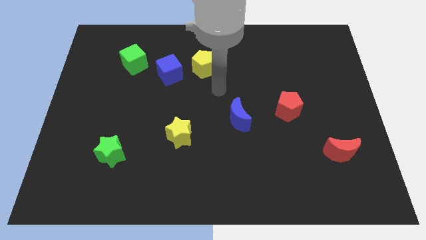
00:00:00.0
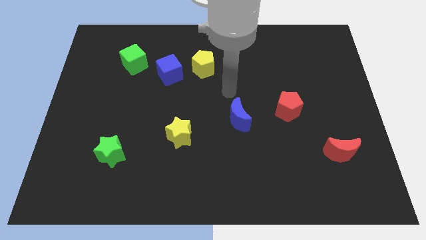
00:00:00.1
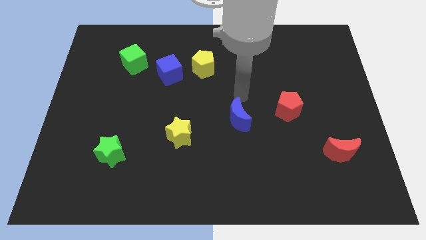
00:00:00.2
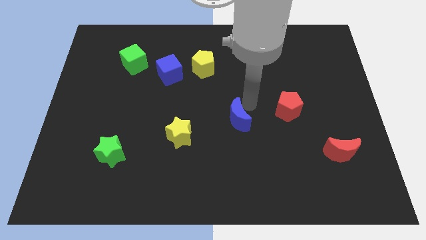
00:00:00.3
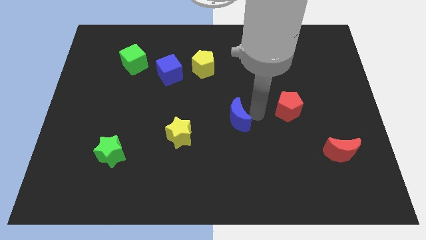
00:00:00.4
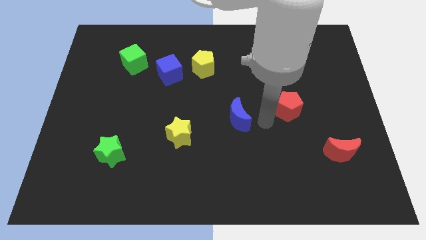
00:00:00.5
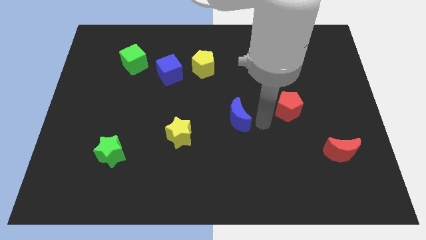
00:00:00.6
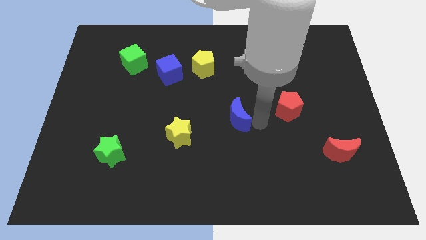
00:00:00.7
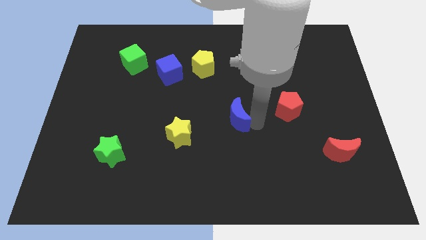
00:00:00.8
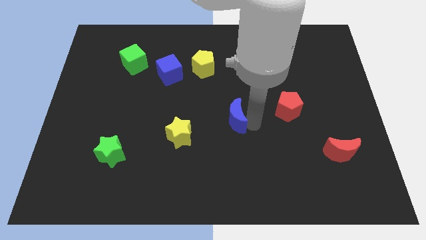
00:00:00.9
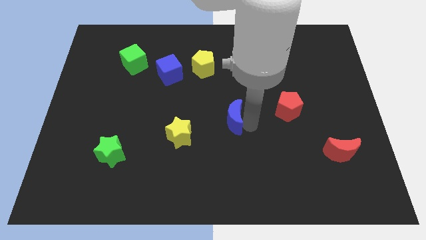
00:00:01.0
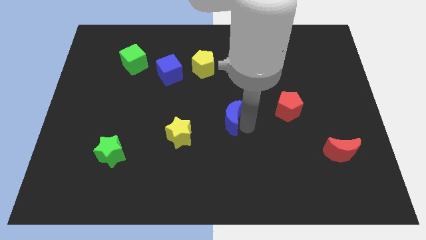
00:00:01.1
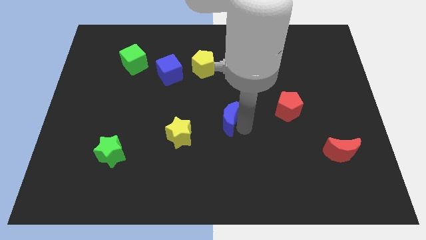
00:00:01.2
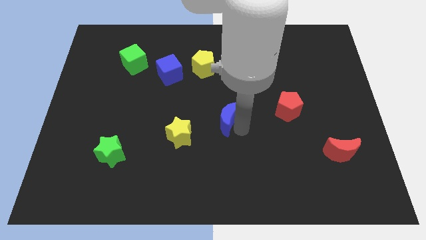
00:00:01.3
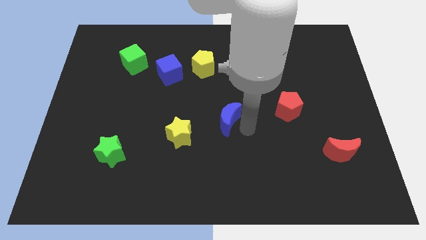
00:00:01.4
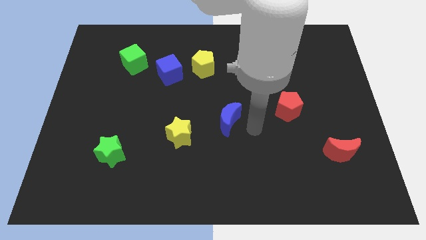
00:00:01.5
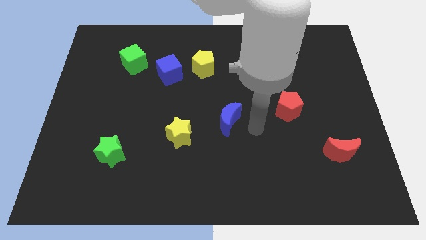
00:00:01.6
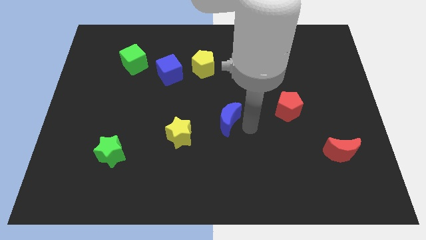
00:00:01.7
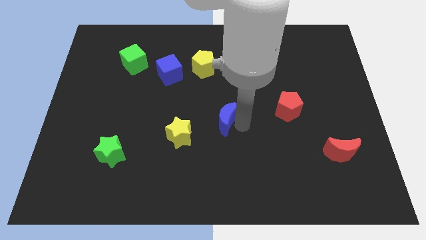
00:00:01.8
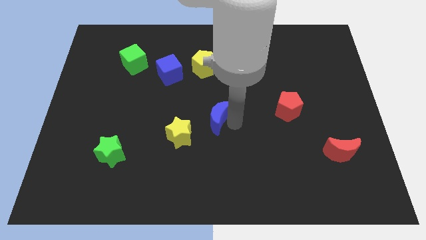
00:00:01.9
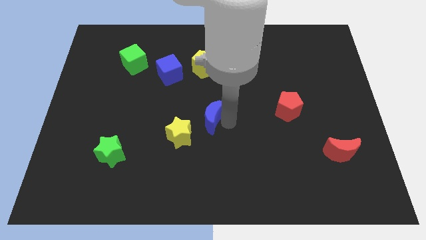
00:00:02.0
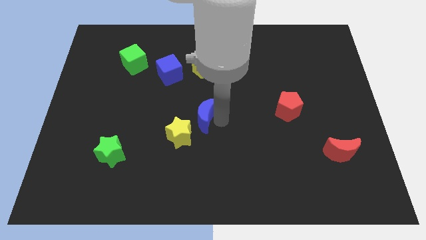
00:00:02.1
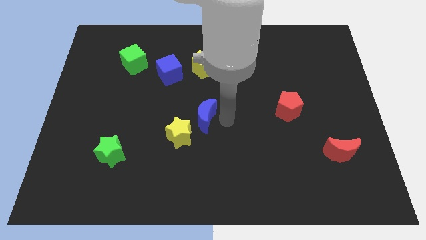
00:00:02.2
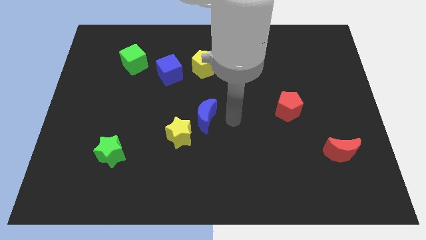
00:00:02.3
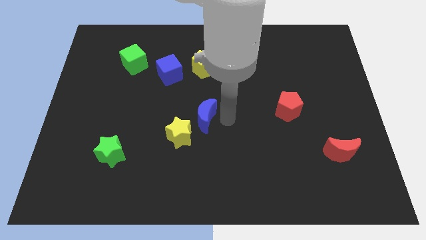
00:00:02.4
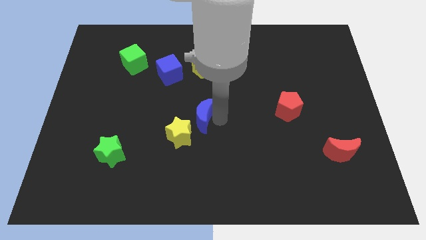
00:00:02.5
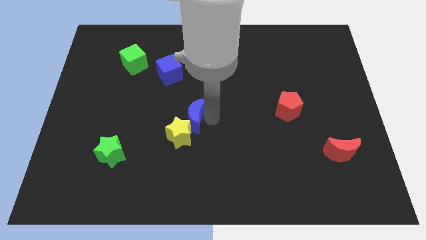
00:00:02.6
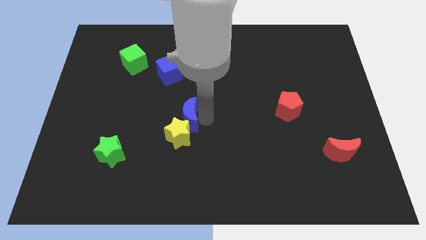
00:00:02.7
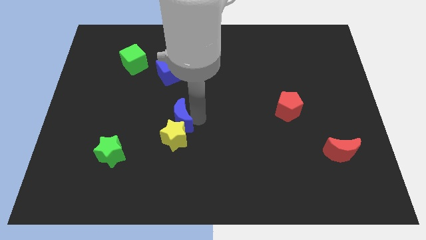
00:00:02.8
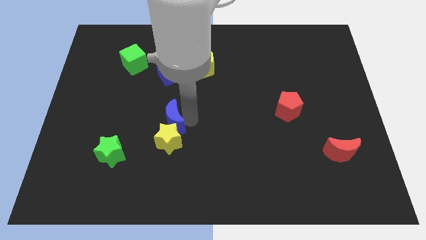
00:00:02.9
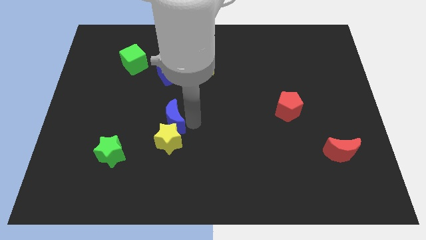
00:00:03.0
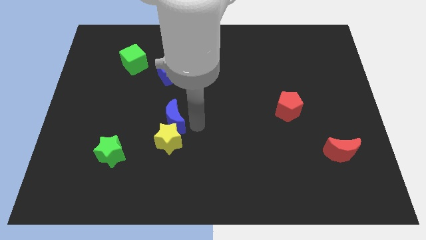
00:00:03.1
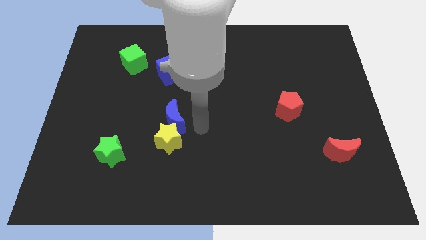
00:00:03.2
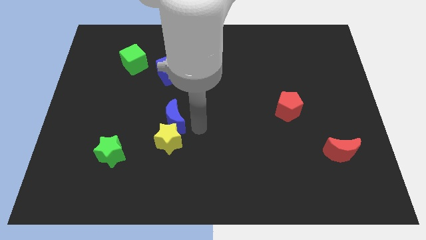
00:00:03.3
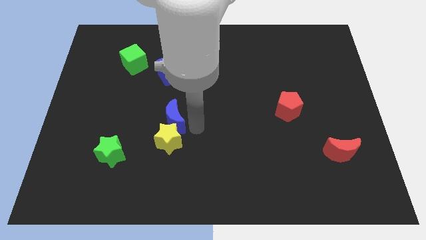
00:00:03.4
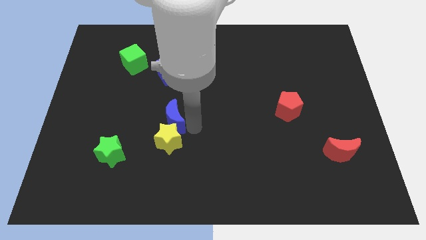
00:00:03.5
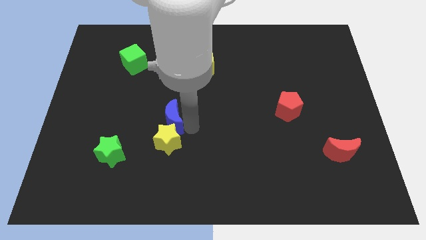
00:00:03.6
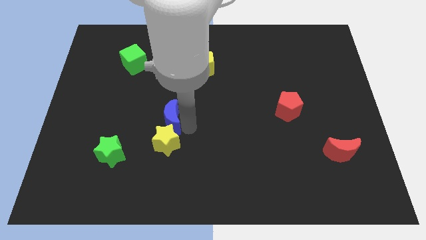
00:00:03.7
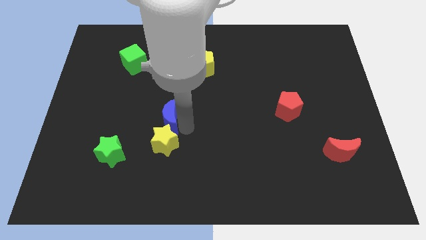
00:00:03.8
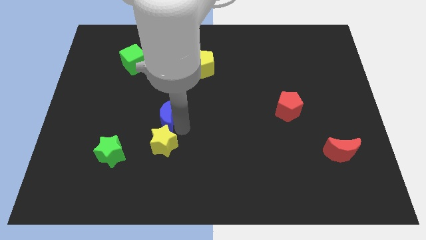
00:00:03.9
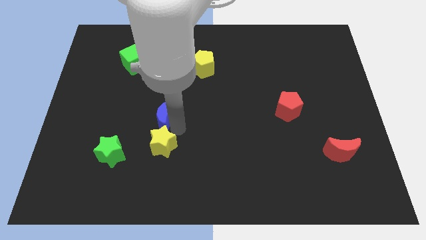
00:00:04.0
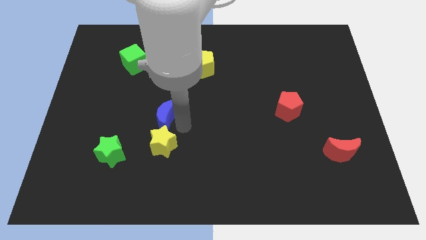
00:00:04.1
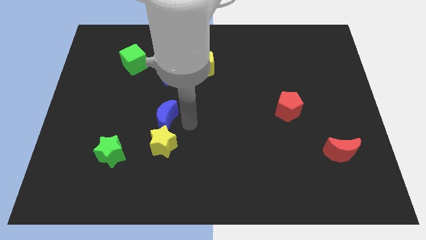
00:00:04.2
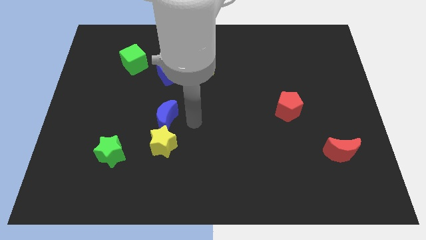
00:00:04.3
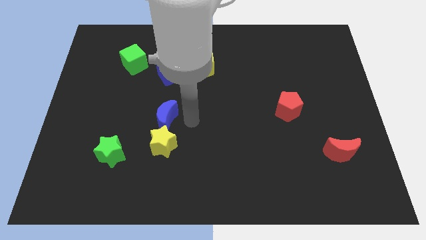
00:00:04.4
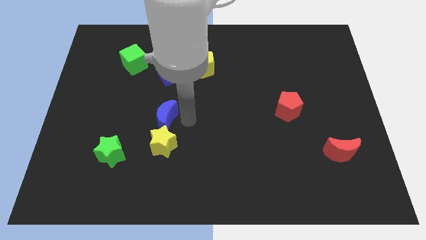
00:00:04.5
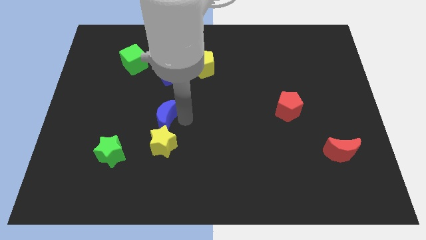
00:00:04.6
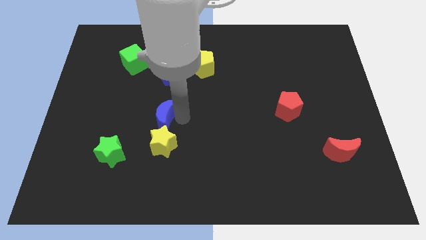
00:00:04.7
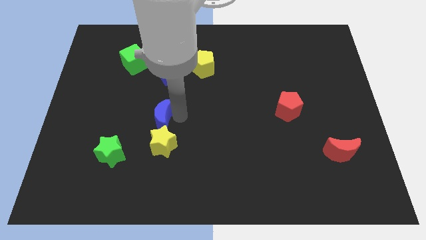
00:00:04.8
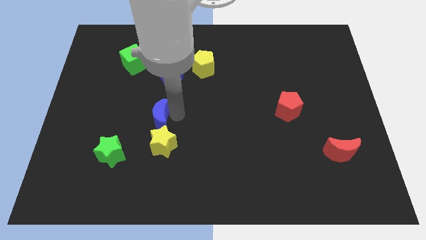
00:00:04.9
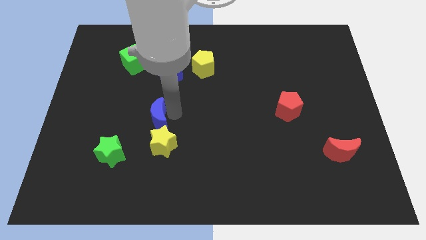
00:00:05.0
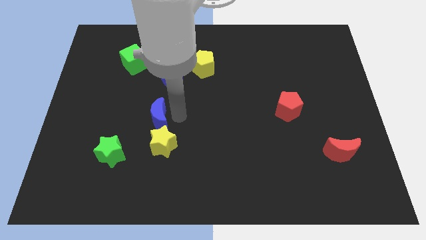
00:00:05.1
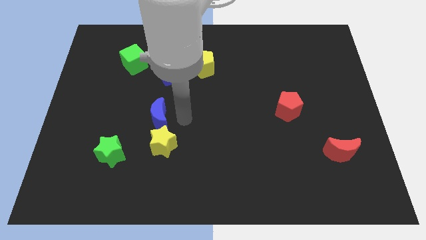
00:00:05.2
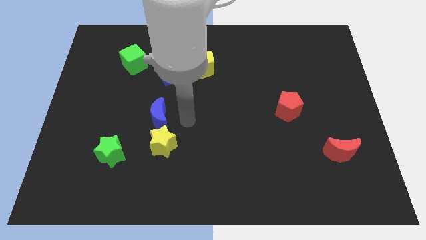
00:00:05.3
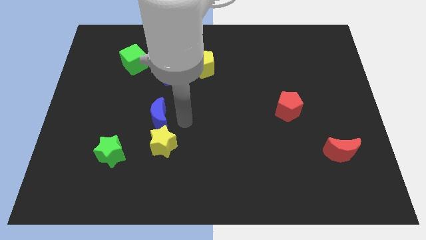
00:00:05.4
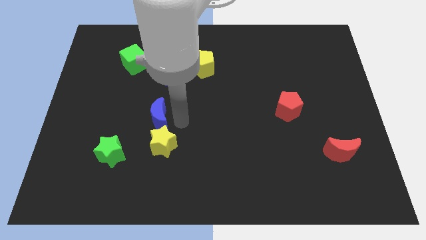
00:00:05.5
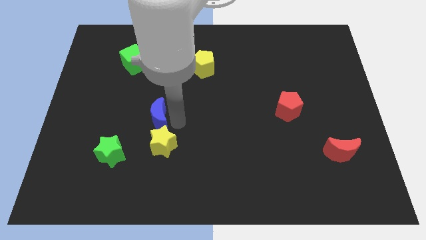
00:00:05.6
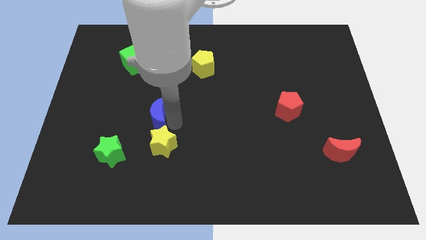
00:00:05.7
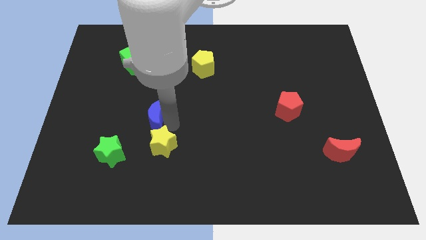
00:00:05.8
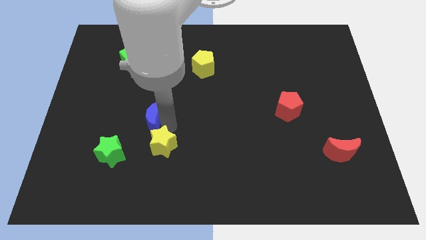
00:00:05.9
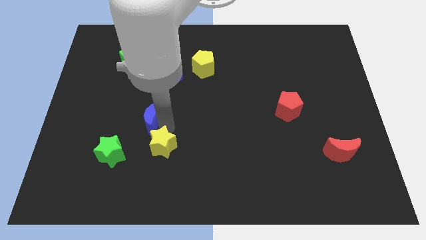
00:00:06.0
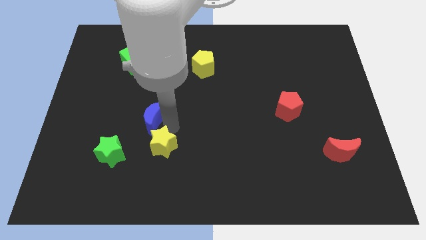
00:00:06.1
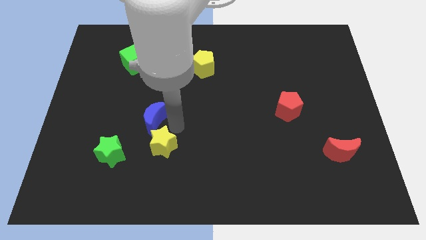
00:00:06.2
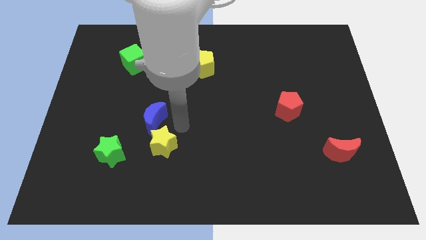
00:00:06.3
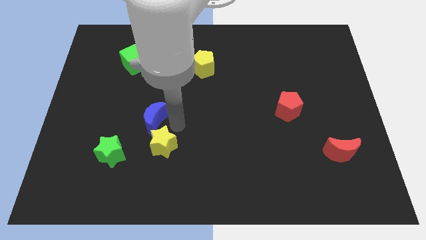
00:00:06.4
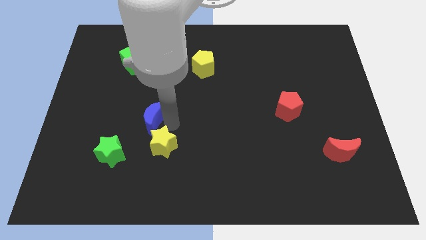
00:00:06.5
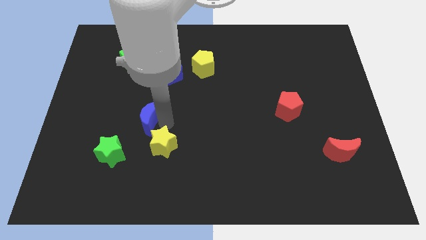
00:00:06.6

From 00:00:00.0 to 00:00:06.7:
move the blue moon left

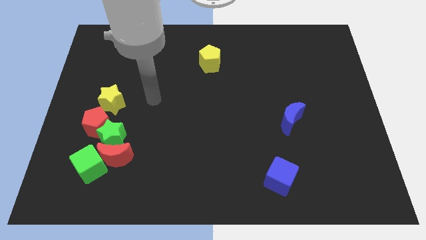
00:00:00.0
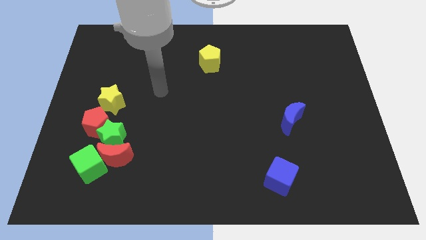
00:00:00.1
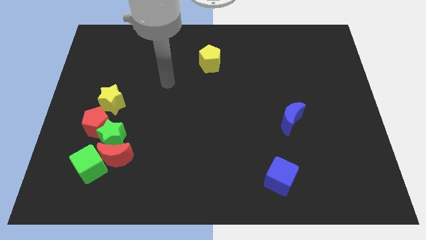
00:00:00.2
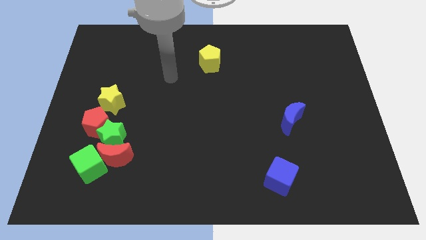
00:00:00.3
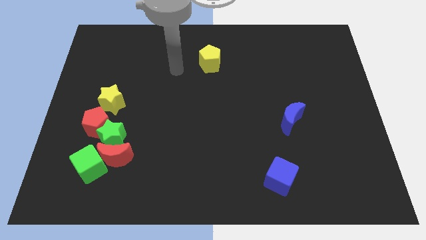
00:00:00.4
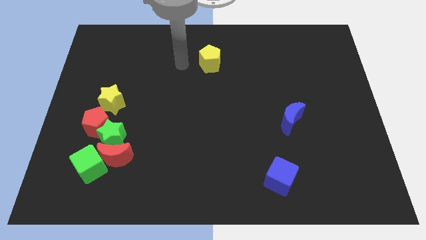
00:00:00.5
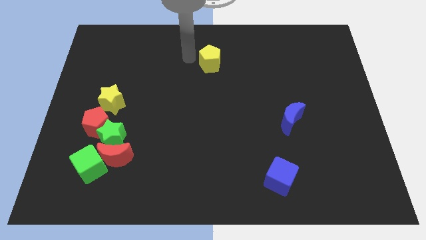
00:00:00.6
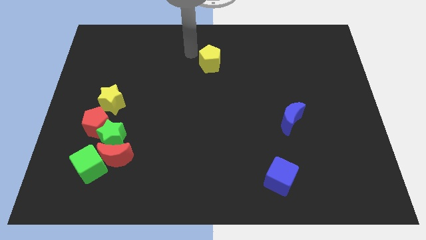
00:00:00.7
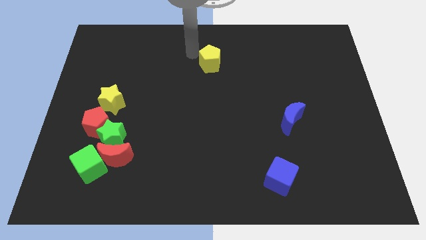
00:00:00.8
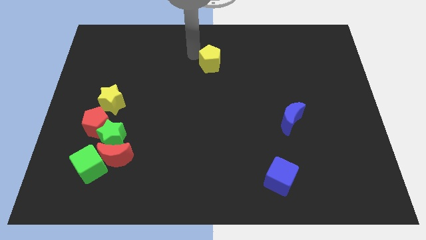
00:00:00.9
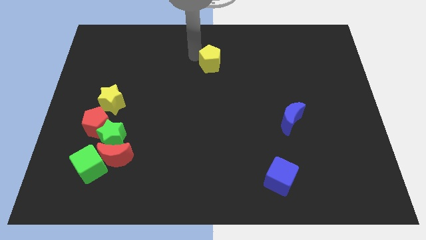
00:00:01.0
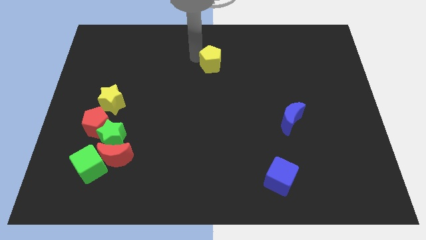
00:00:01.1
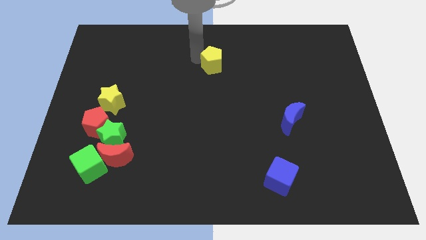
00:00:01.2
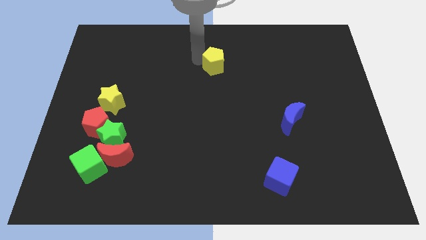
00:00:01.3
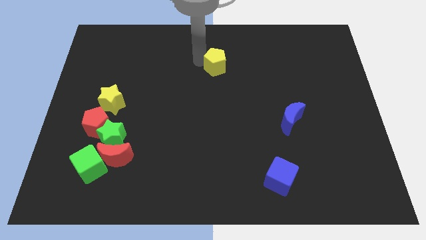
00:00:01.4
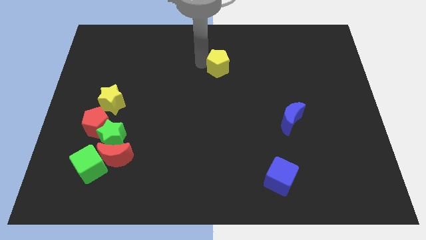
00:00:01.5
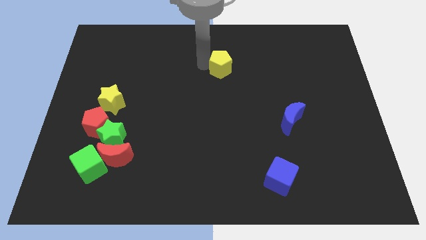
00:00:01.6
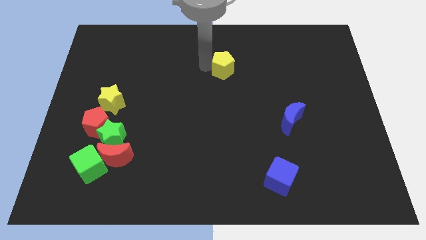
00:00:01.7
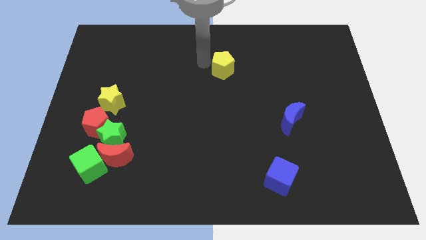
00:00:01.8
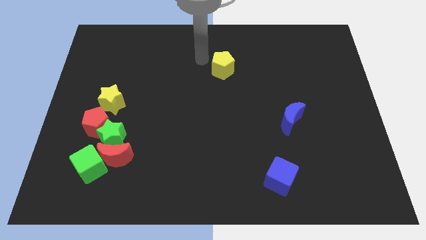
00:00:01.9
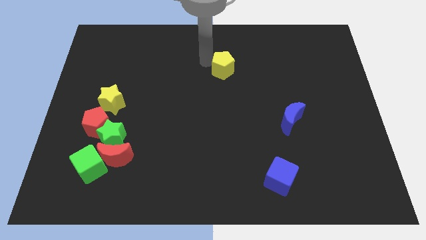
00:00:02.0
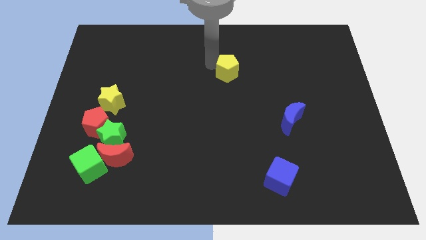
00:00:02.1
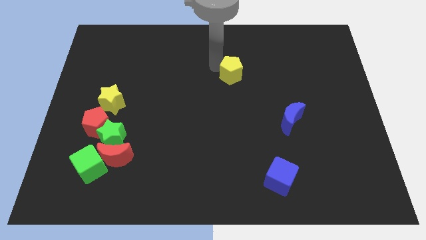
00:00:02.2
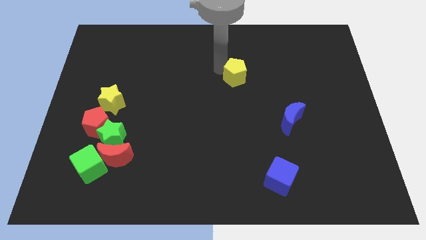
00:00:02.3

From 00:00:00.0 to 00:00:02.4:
slightly move the yellow pentagon down and right diagonally
